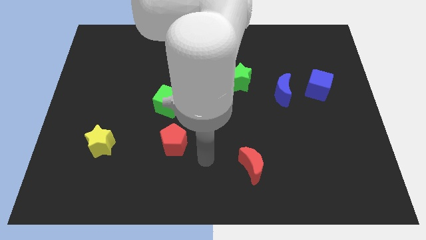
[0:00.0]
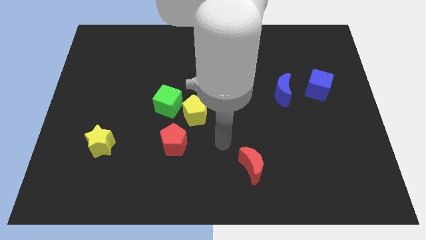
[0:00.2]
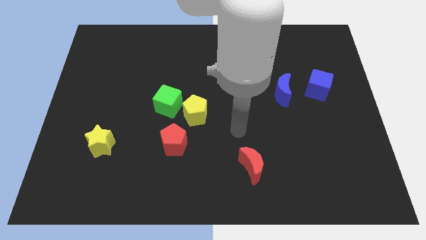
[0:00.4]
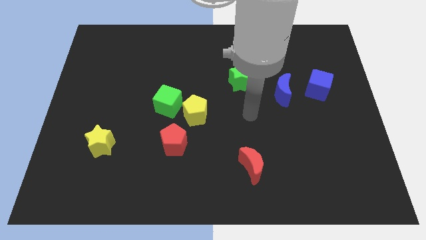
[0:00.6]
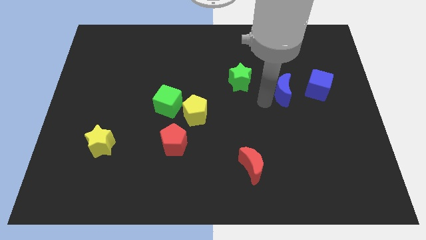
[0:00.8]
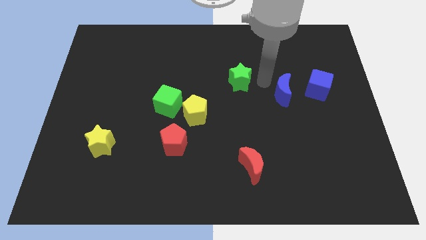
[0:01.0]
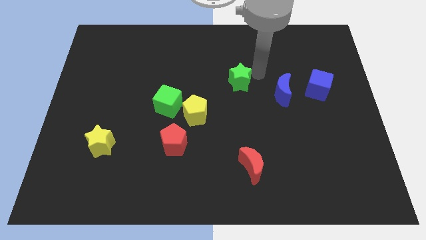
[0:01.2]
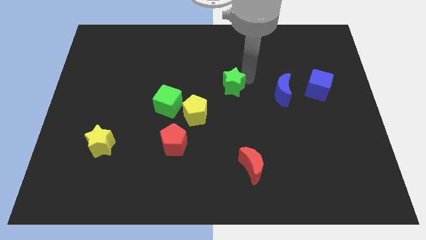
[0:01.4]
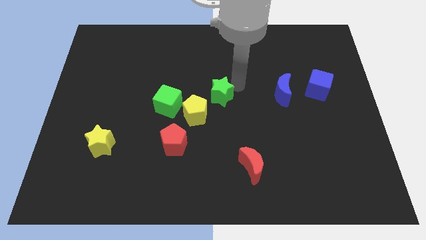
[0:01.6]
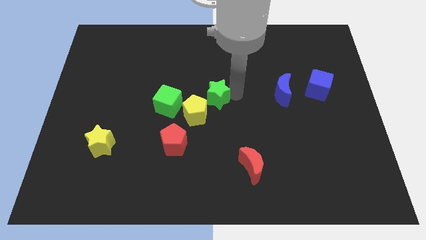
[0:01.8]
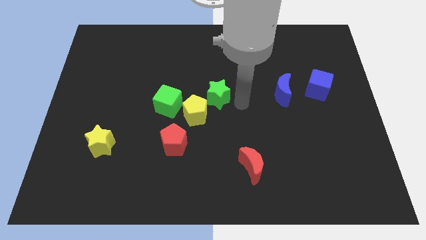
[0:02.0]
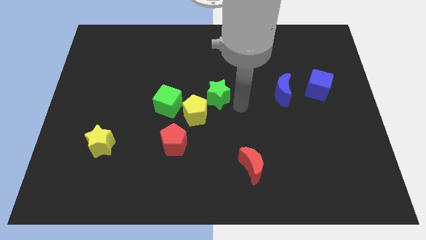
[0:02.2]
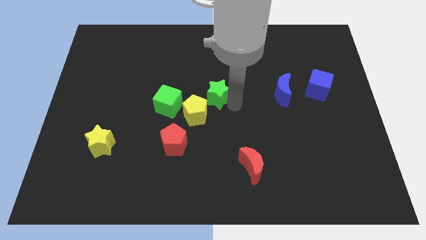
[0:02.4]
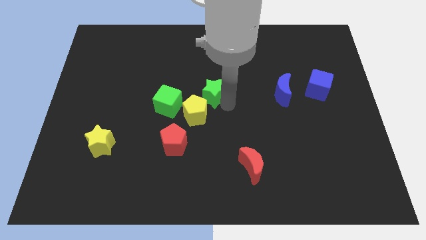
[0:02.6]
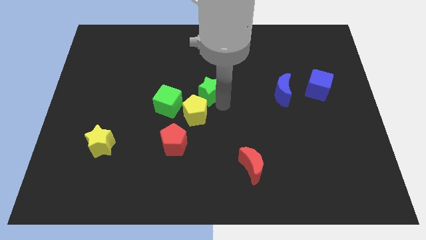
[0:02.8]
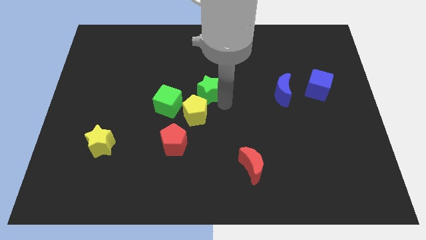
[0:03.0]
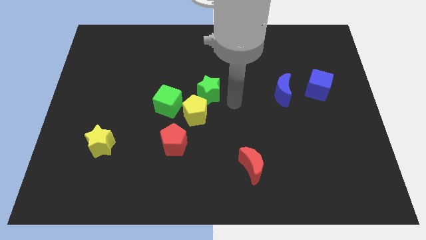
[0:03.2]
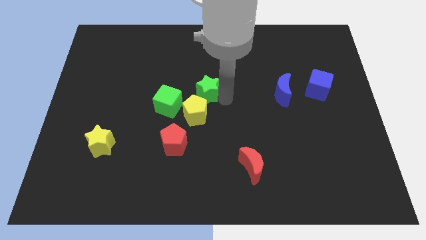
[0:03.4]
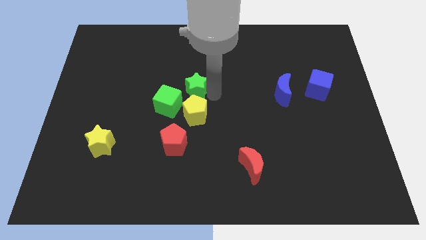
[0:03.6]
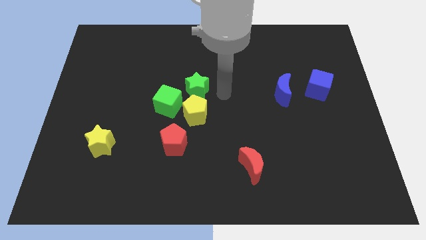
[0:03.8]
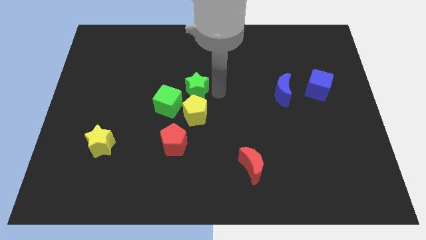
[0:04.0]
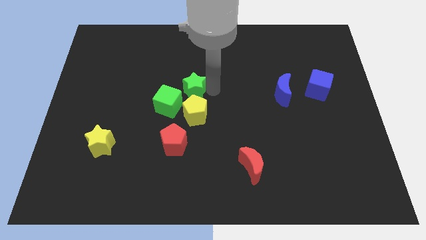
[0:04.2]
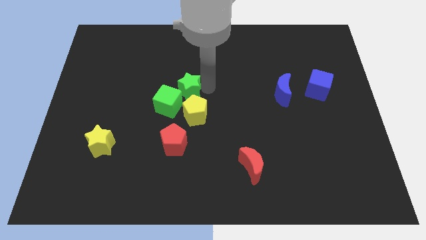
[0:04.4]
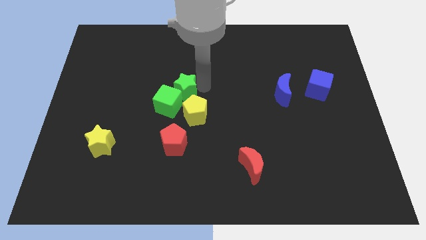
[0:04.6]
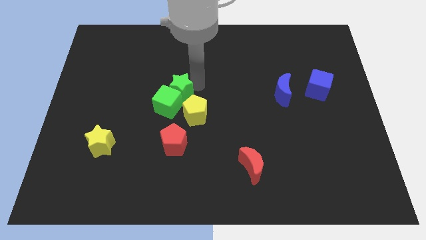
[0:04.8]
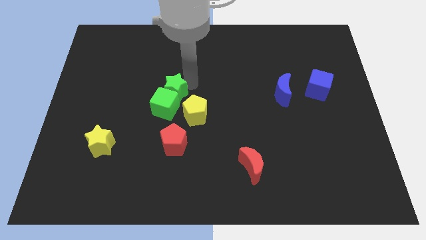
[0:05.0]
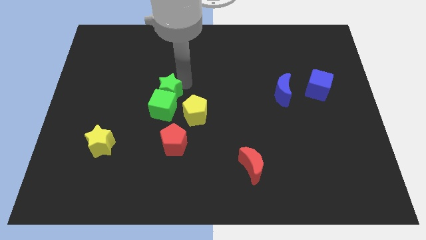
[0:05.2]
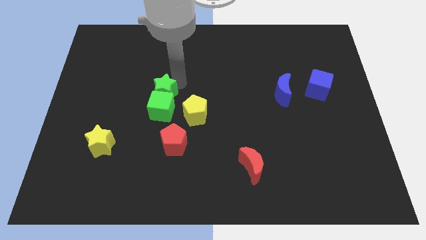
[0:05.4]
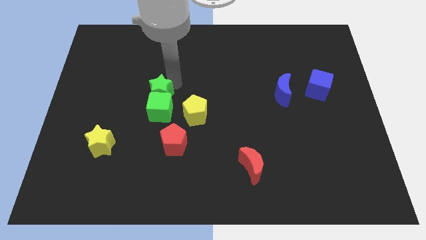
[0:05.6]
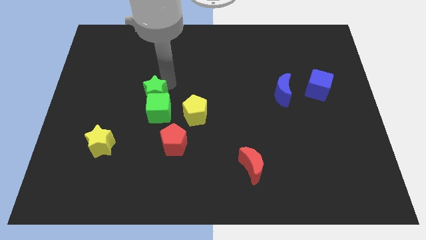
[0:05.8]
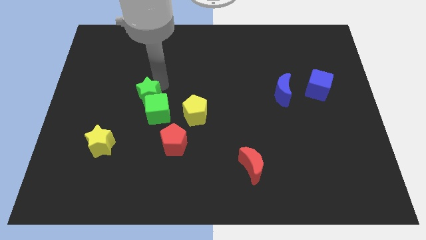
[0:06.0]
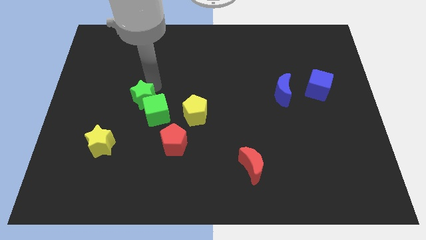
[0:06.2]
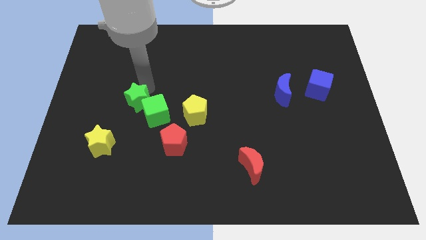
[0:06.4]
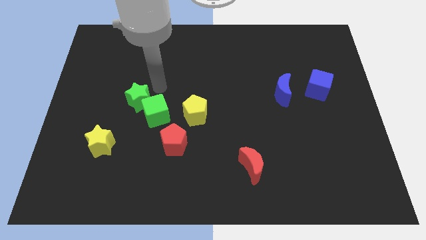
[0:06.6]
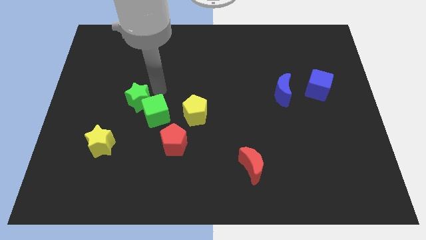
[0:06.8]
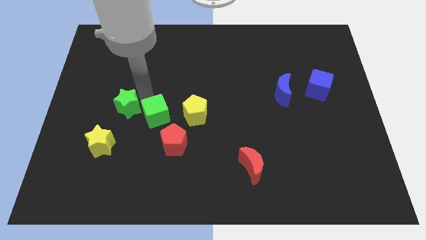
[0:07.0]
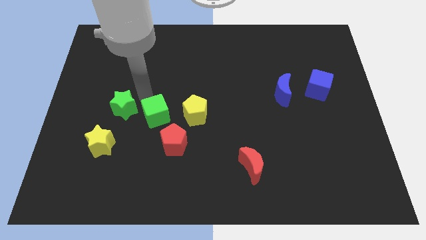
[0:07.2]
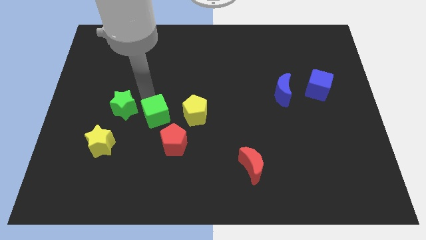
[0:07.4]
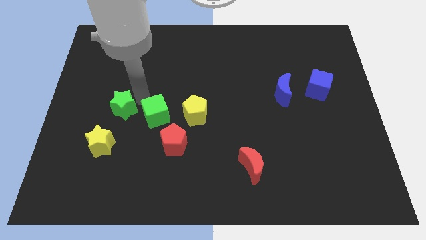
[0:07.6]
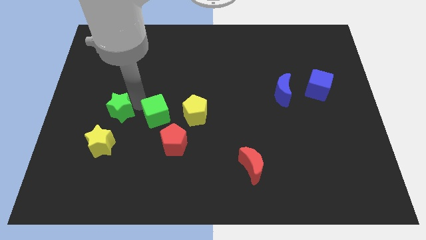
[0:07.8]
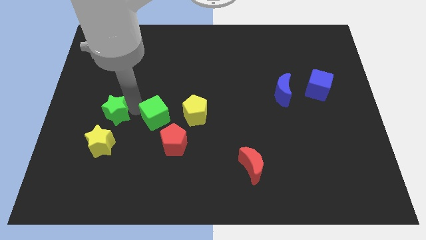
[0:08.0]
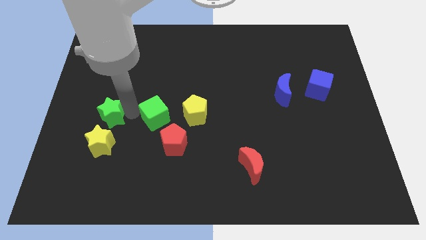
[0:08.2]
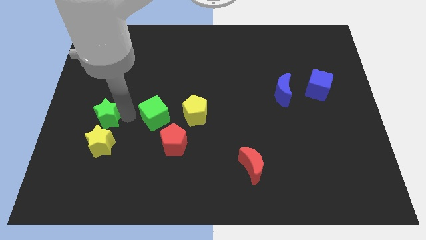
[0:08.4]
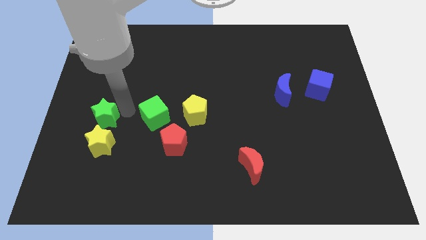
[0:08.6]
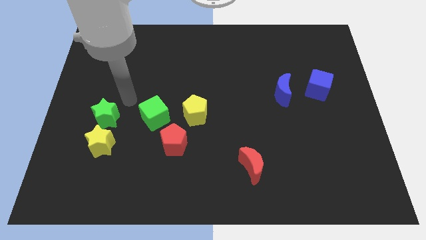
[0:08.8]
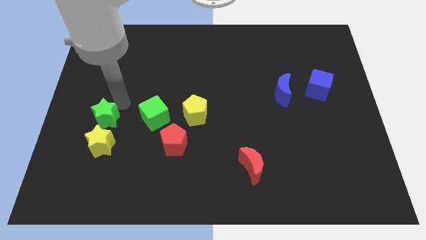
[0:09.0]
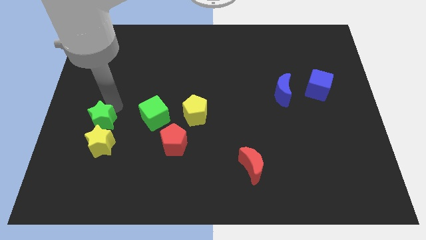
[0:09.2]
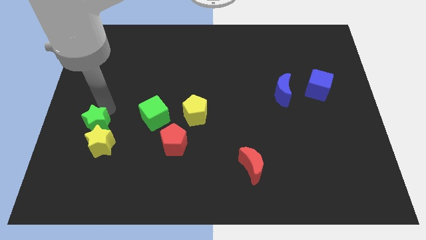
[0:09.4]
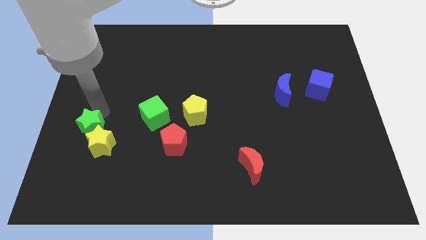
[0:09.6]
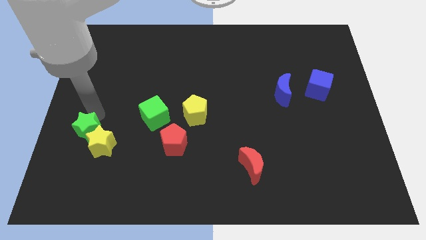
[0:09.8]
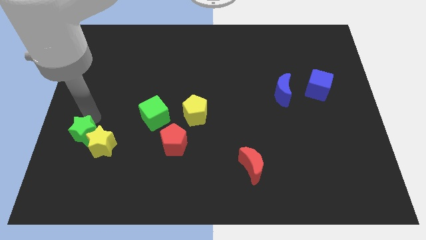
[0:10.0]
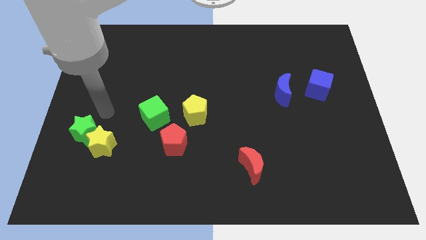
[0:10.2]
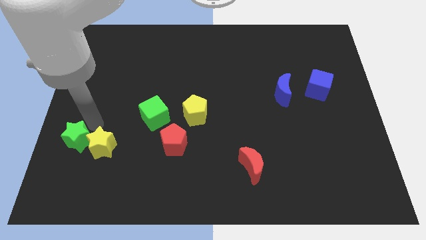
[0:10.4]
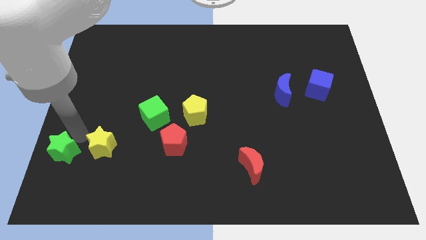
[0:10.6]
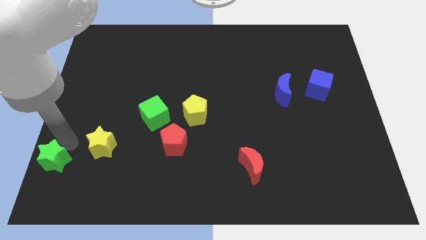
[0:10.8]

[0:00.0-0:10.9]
push the green star to the bottom left corner
